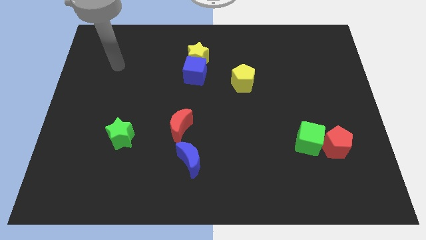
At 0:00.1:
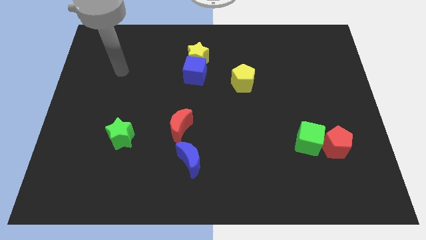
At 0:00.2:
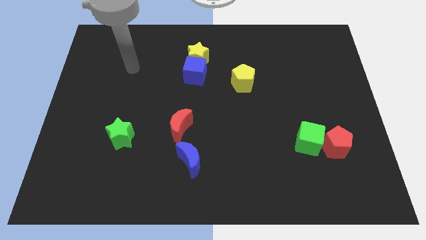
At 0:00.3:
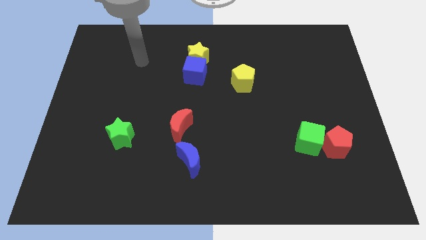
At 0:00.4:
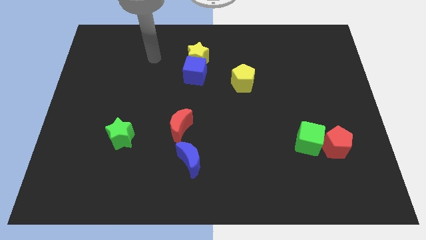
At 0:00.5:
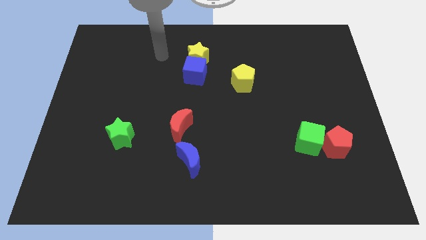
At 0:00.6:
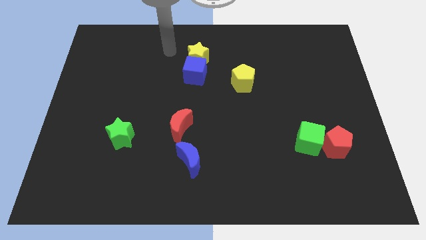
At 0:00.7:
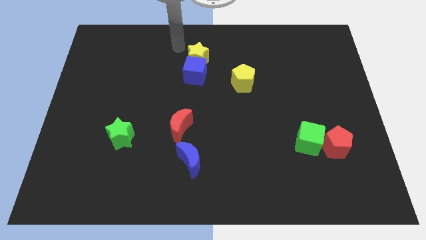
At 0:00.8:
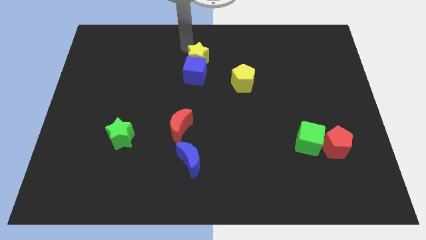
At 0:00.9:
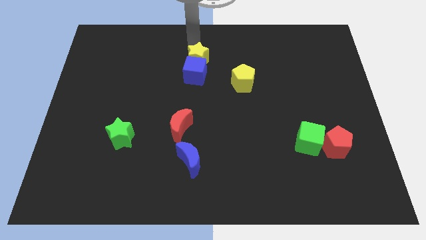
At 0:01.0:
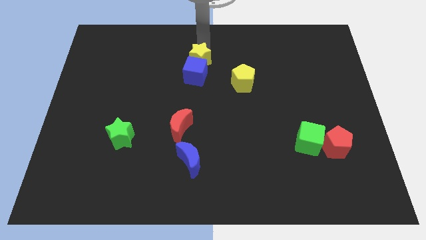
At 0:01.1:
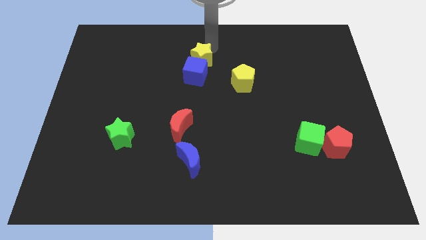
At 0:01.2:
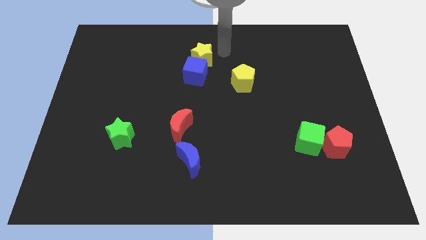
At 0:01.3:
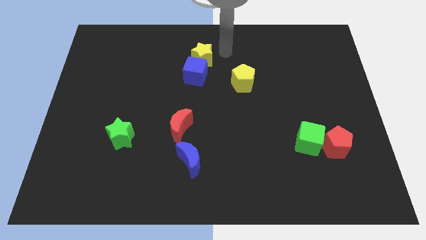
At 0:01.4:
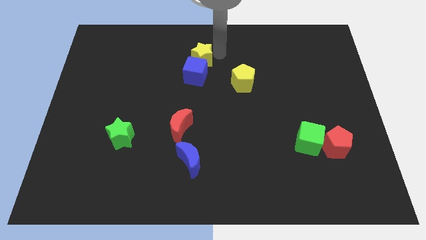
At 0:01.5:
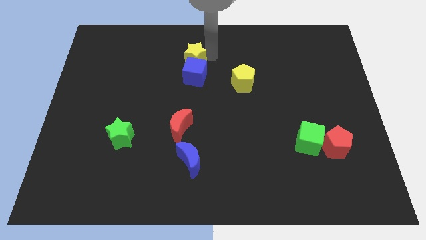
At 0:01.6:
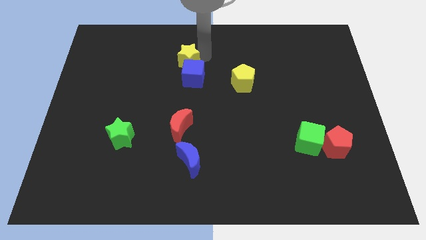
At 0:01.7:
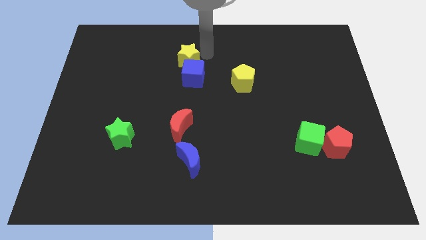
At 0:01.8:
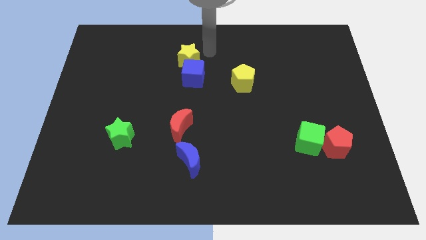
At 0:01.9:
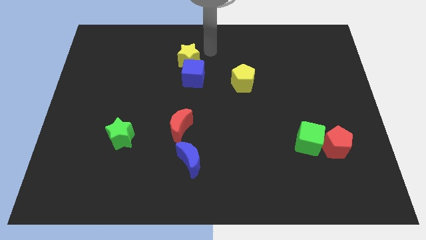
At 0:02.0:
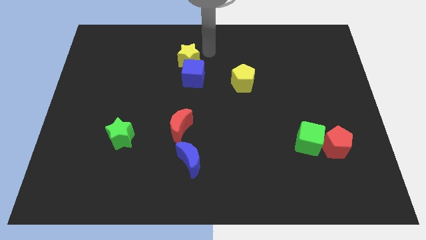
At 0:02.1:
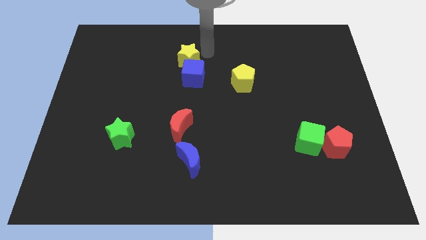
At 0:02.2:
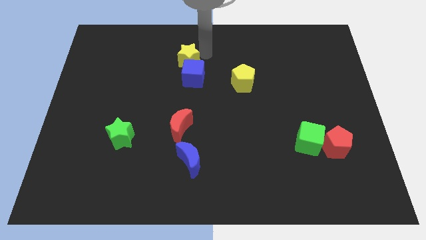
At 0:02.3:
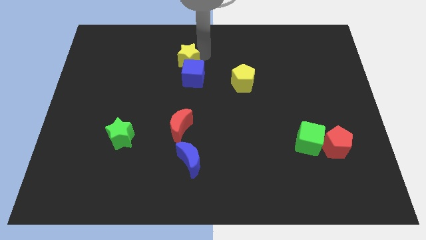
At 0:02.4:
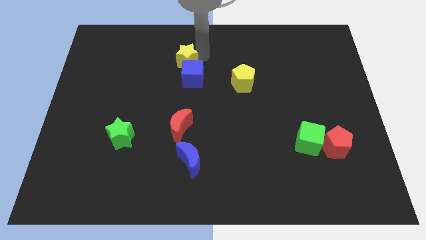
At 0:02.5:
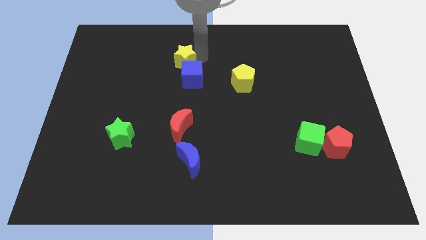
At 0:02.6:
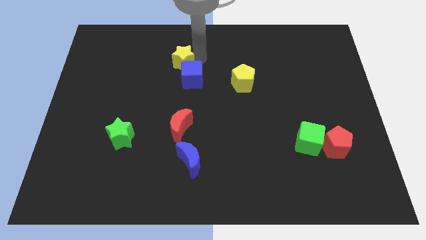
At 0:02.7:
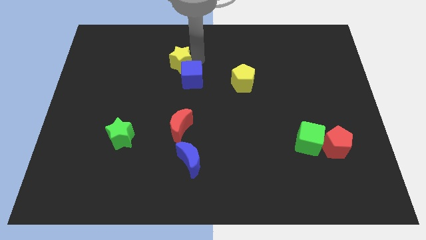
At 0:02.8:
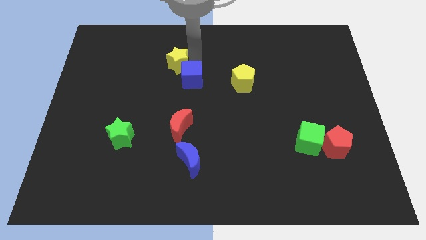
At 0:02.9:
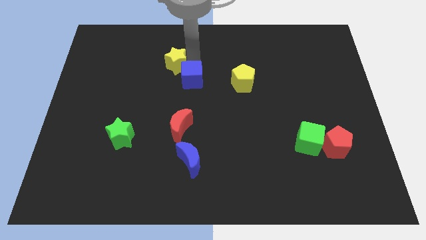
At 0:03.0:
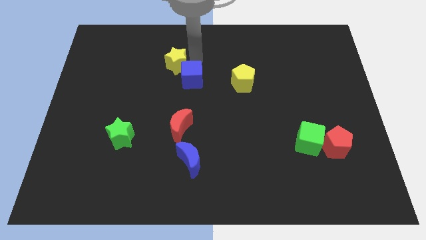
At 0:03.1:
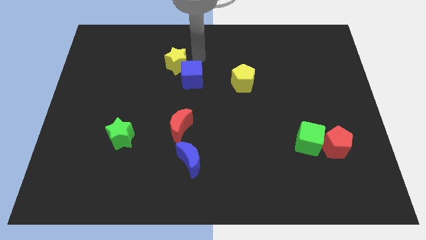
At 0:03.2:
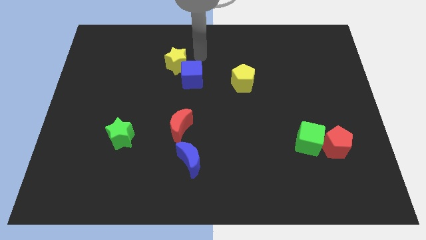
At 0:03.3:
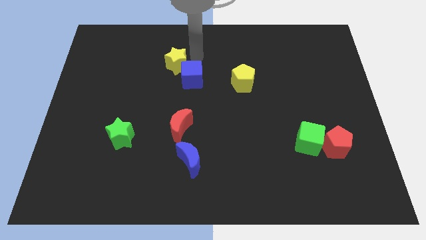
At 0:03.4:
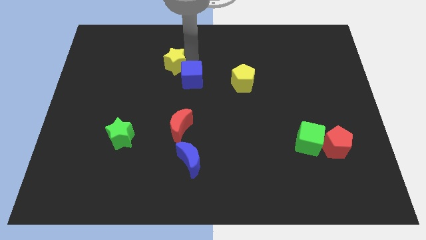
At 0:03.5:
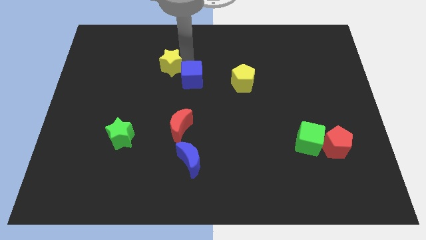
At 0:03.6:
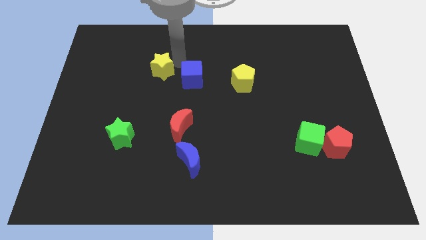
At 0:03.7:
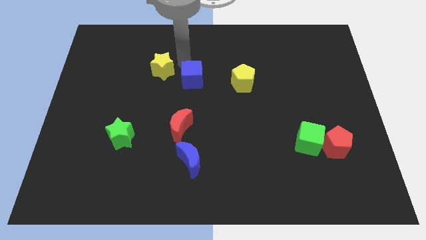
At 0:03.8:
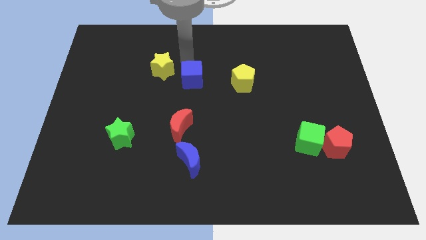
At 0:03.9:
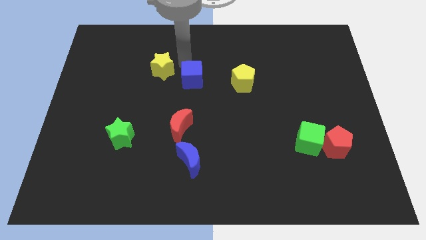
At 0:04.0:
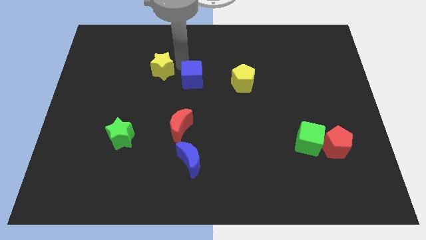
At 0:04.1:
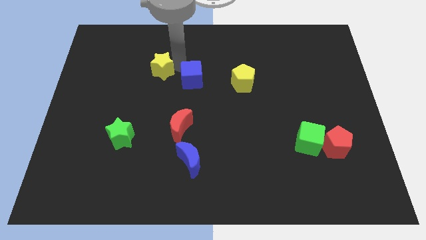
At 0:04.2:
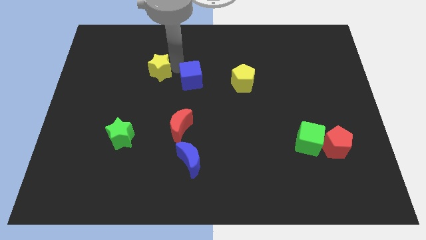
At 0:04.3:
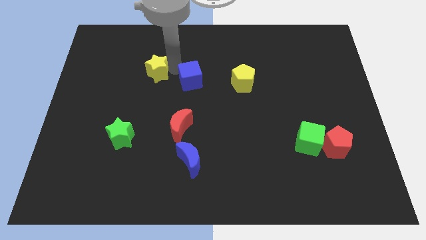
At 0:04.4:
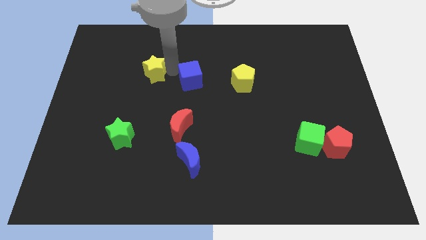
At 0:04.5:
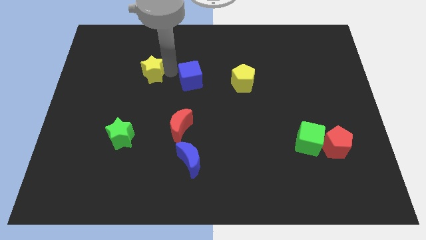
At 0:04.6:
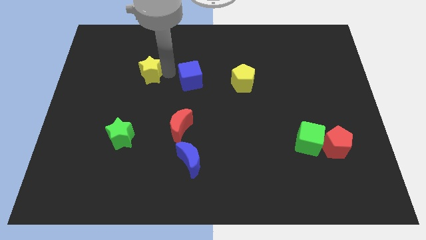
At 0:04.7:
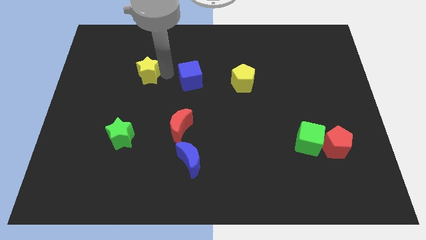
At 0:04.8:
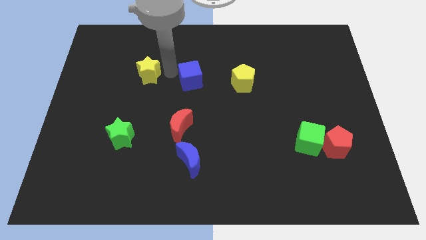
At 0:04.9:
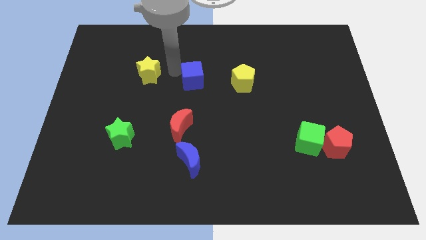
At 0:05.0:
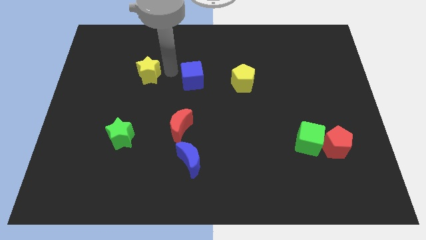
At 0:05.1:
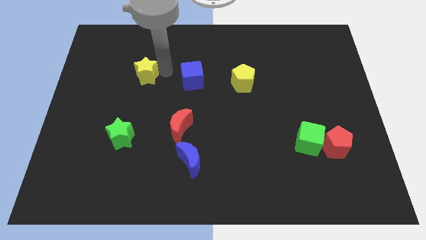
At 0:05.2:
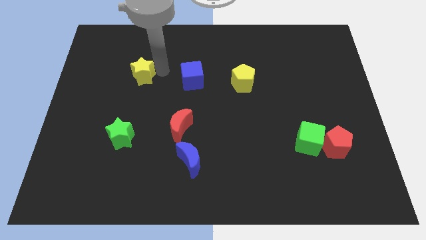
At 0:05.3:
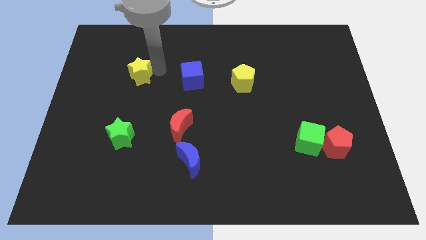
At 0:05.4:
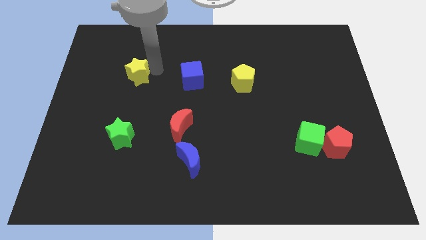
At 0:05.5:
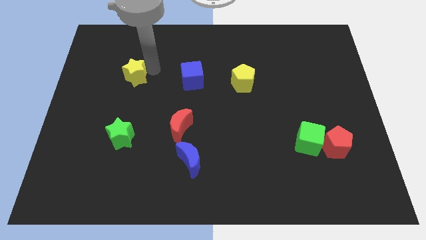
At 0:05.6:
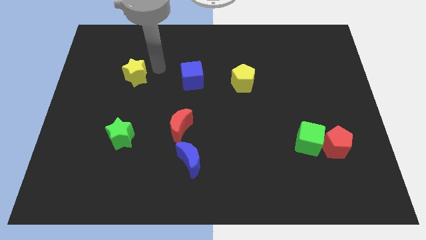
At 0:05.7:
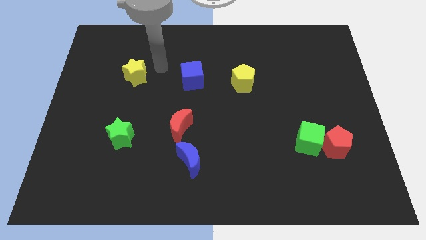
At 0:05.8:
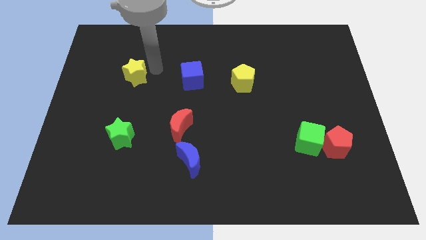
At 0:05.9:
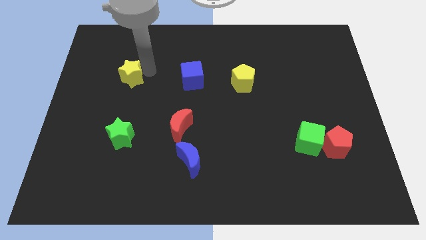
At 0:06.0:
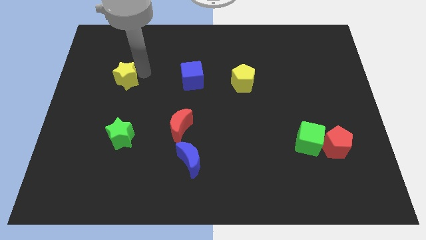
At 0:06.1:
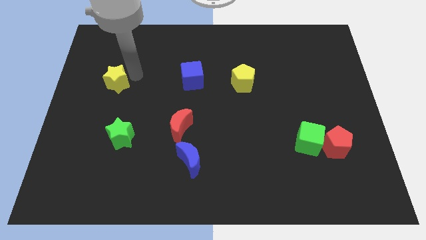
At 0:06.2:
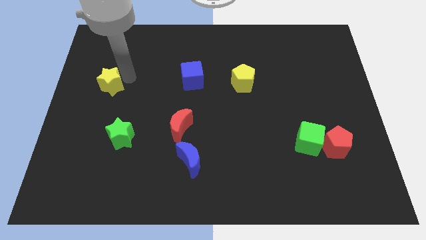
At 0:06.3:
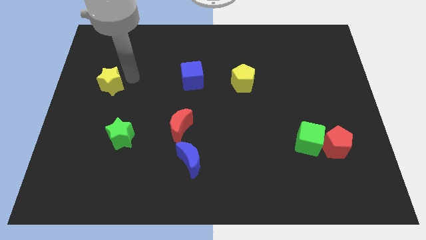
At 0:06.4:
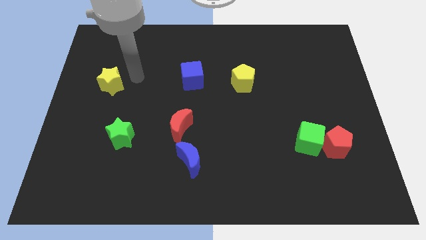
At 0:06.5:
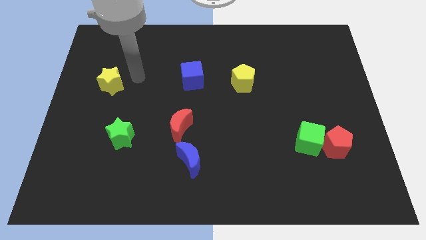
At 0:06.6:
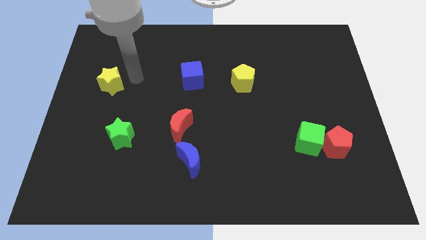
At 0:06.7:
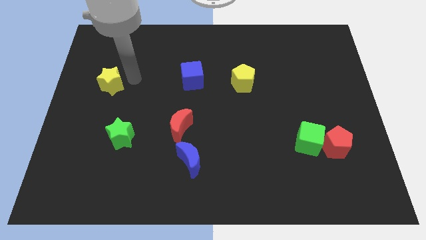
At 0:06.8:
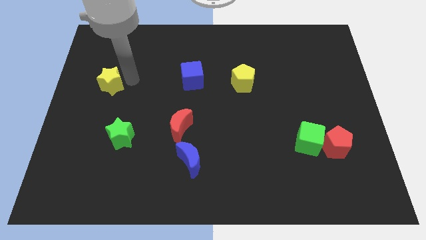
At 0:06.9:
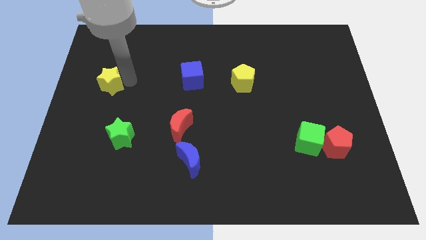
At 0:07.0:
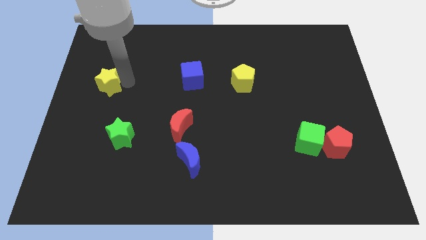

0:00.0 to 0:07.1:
push the yellow star to the left side
